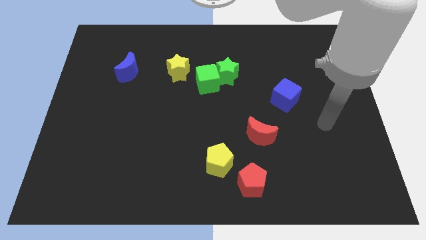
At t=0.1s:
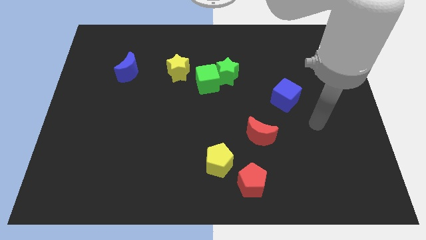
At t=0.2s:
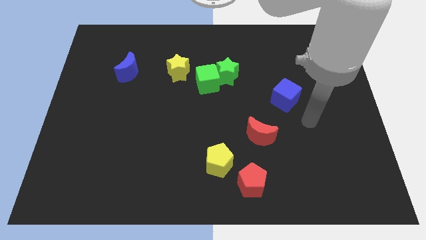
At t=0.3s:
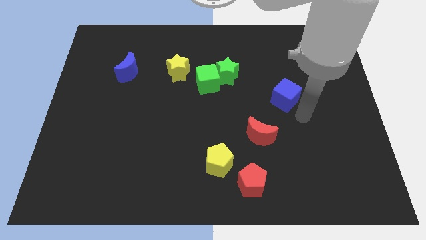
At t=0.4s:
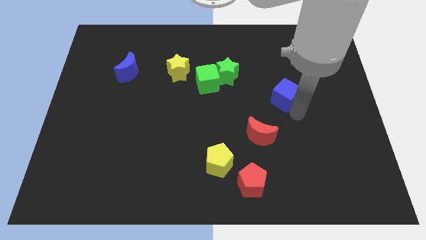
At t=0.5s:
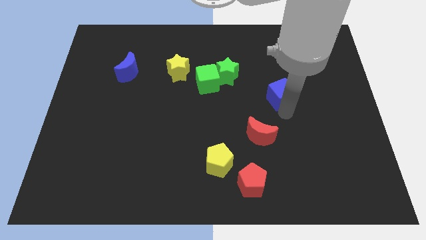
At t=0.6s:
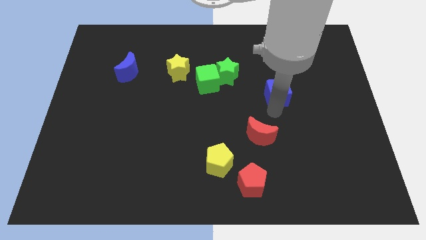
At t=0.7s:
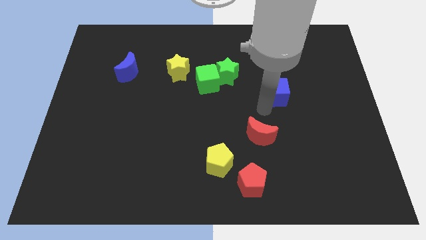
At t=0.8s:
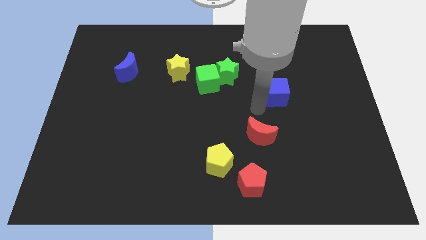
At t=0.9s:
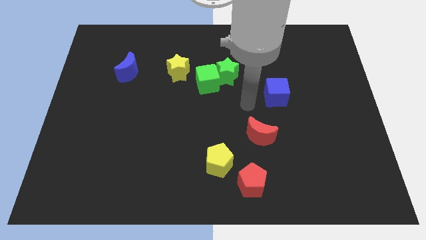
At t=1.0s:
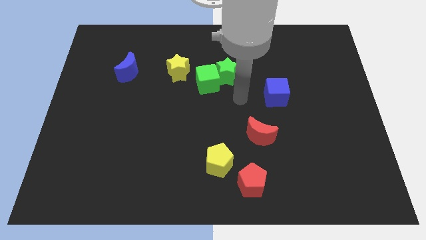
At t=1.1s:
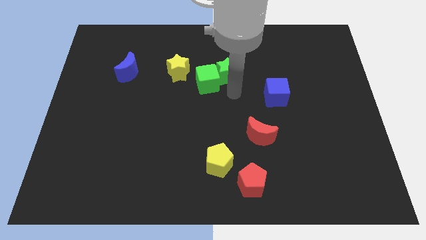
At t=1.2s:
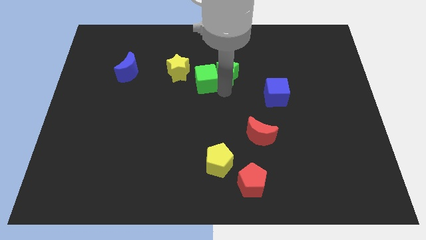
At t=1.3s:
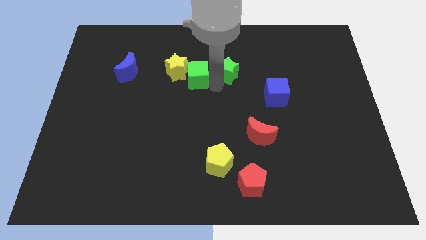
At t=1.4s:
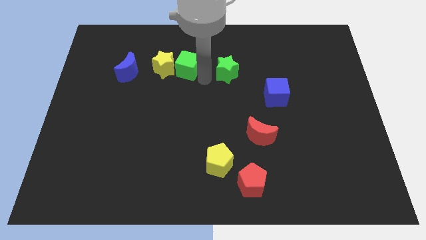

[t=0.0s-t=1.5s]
pull the green star apart from the green cube

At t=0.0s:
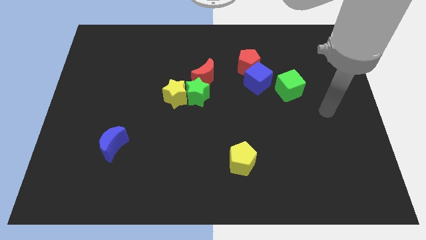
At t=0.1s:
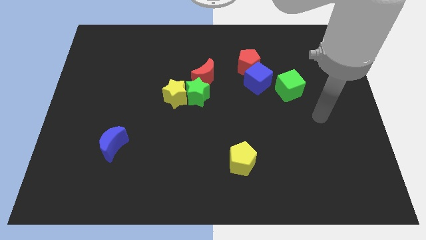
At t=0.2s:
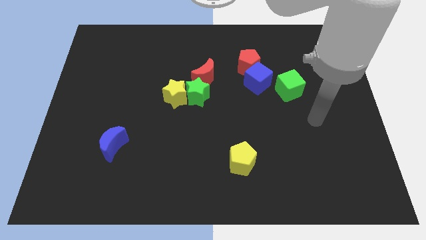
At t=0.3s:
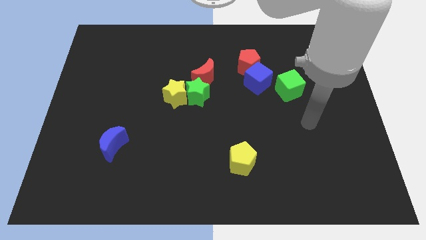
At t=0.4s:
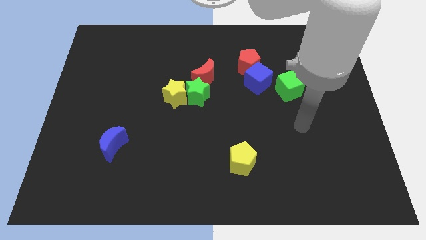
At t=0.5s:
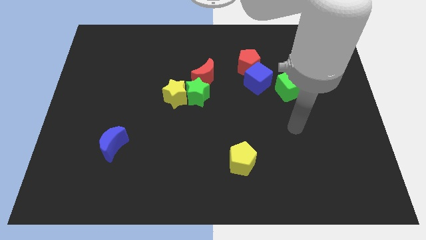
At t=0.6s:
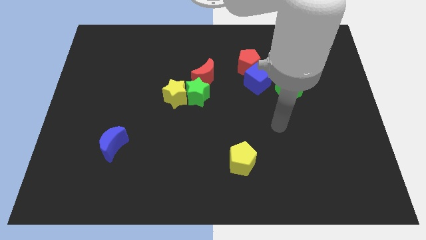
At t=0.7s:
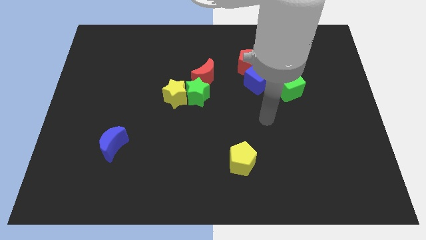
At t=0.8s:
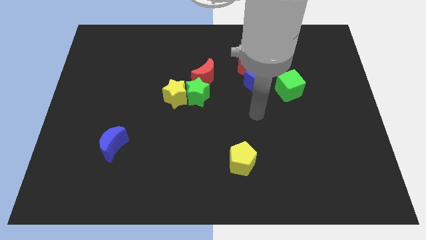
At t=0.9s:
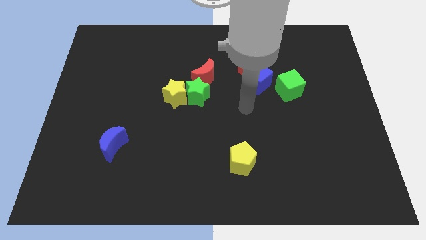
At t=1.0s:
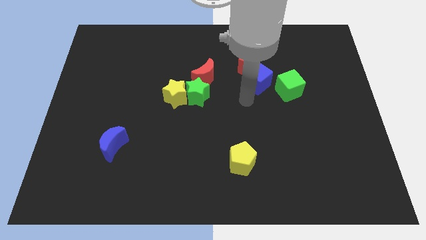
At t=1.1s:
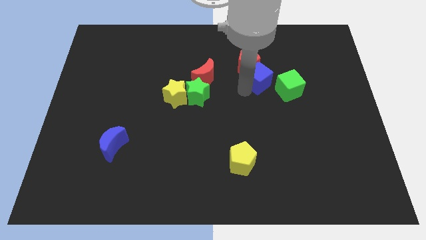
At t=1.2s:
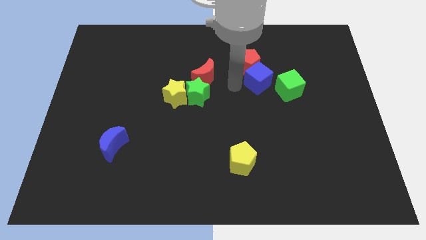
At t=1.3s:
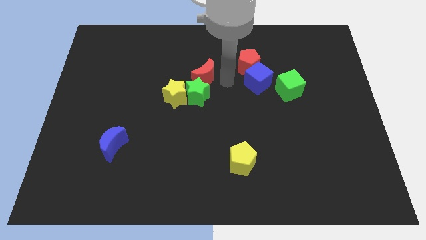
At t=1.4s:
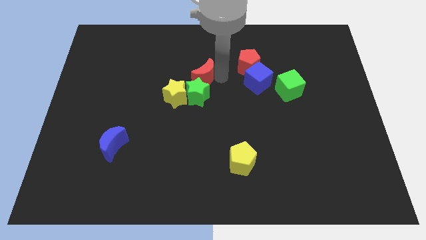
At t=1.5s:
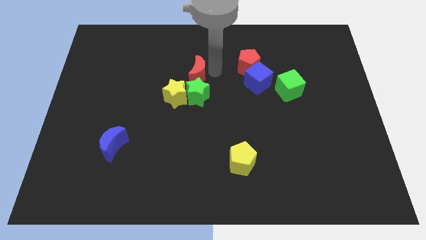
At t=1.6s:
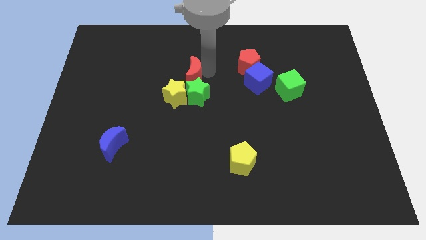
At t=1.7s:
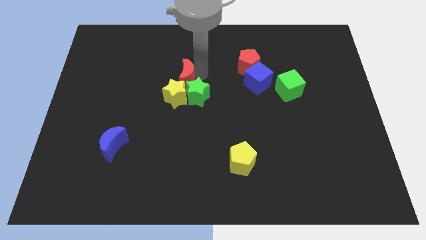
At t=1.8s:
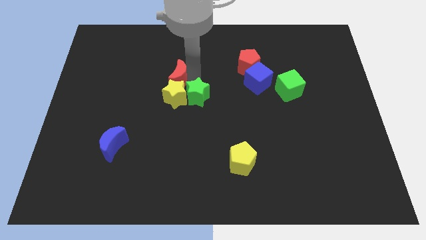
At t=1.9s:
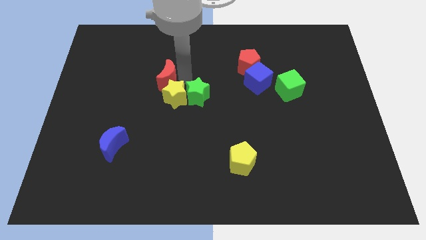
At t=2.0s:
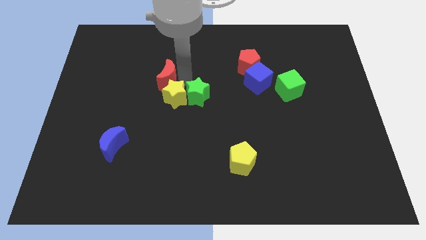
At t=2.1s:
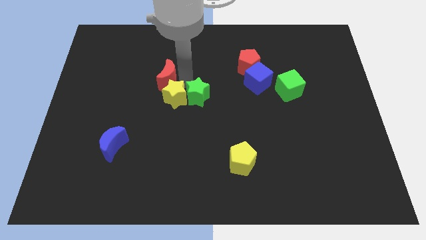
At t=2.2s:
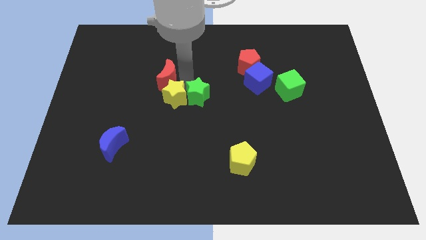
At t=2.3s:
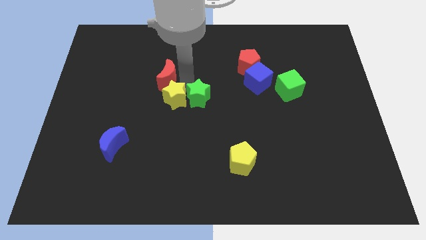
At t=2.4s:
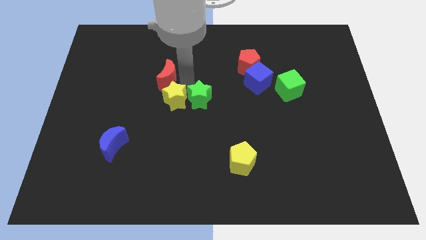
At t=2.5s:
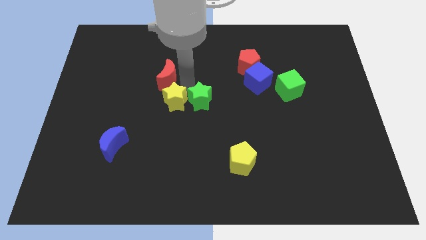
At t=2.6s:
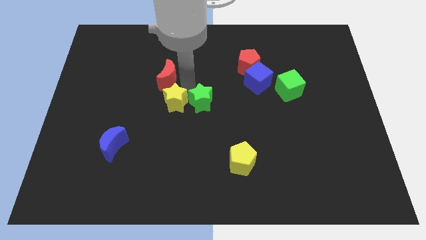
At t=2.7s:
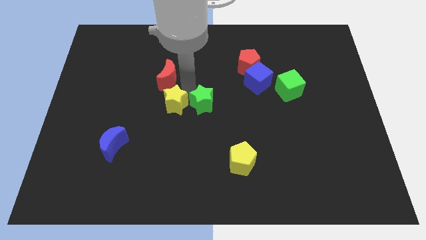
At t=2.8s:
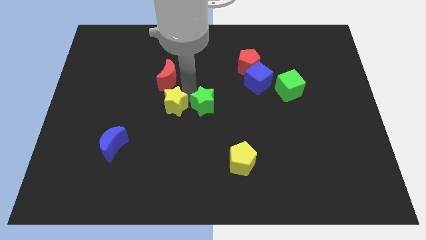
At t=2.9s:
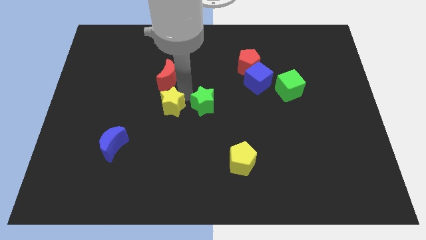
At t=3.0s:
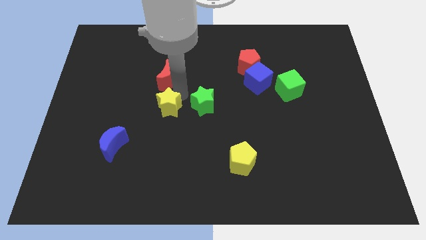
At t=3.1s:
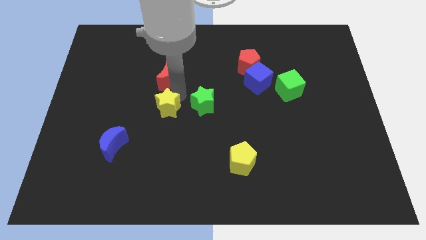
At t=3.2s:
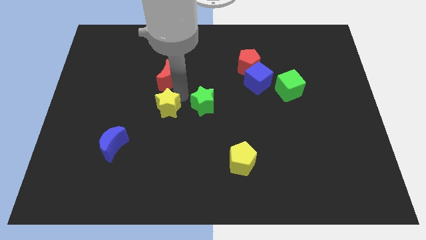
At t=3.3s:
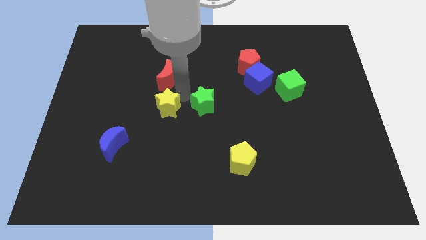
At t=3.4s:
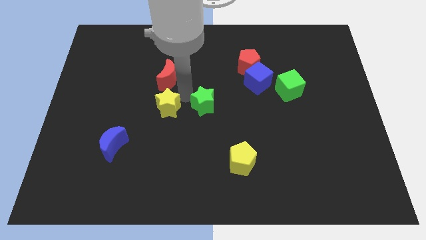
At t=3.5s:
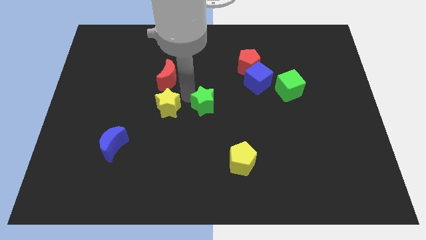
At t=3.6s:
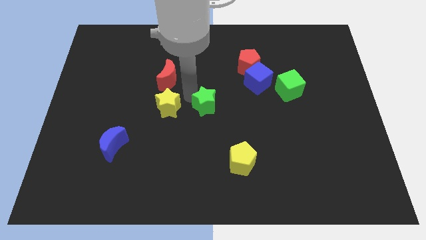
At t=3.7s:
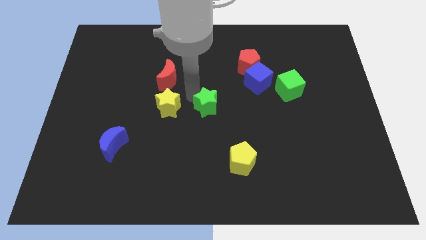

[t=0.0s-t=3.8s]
pull the green star apart from the yellow star and red moon

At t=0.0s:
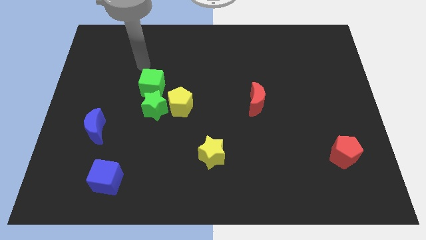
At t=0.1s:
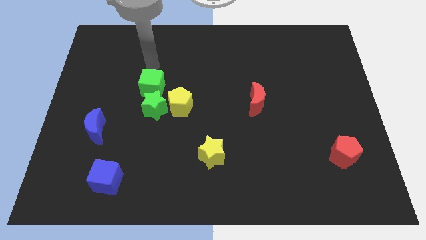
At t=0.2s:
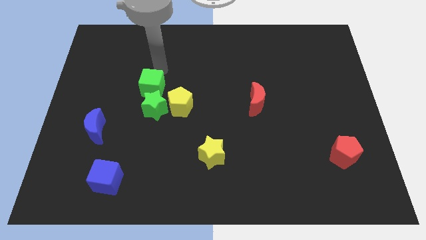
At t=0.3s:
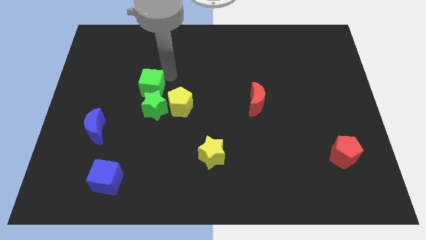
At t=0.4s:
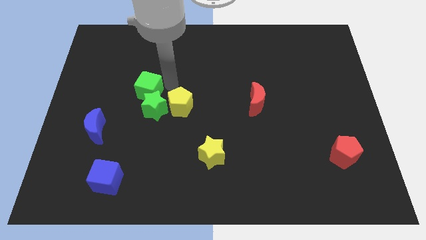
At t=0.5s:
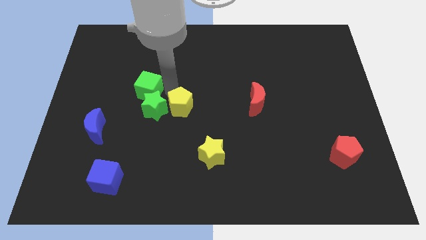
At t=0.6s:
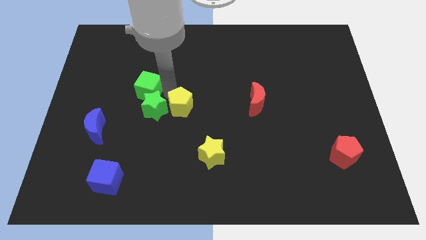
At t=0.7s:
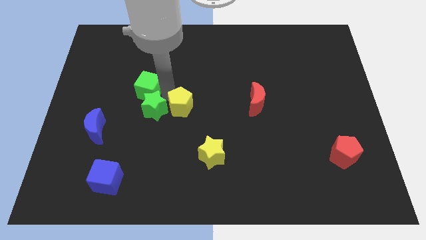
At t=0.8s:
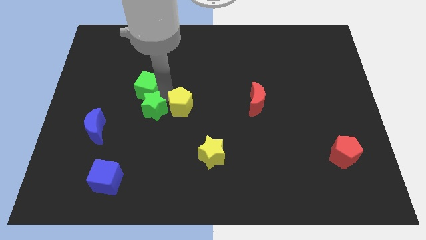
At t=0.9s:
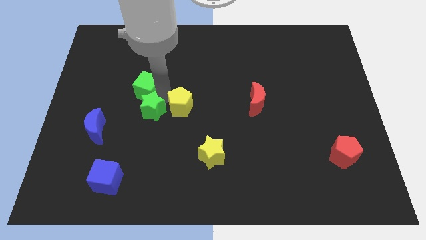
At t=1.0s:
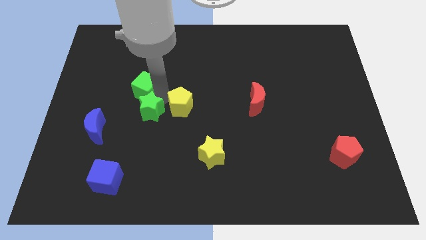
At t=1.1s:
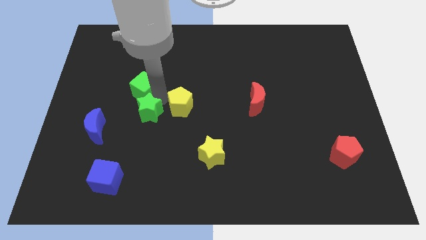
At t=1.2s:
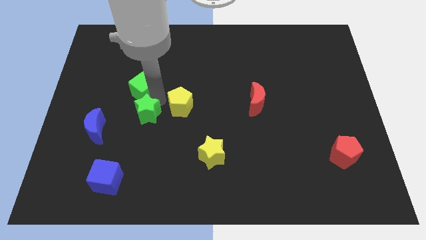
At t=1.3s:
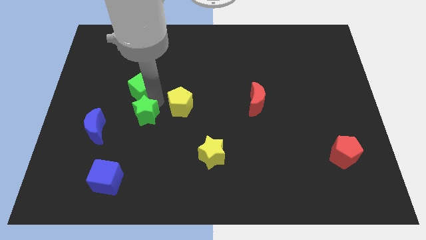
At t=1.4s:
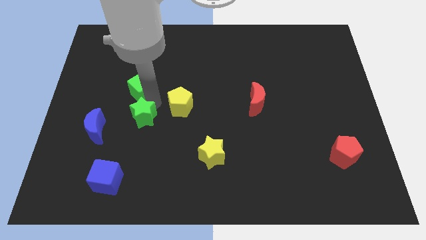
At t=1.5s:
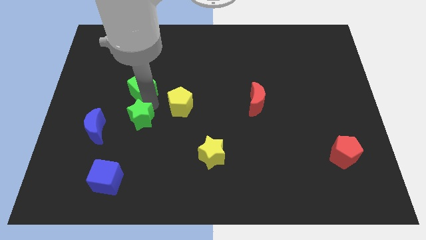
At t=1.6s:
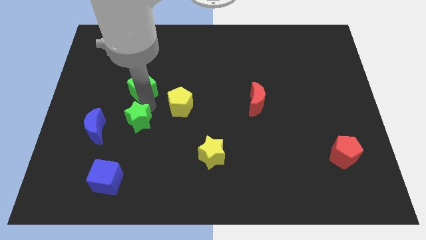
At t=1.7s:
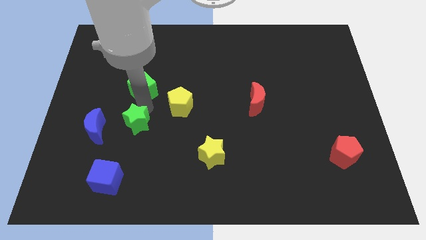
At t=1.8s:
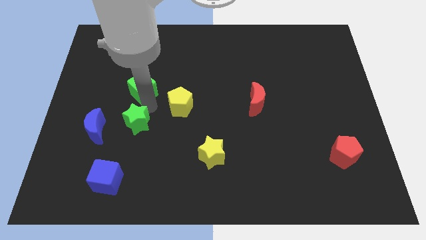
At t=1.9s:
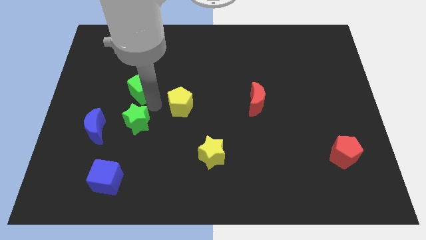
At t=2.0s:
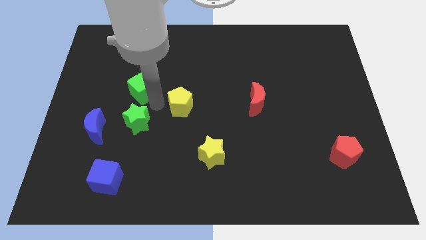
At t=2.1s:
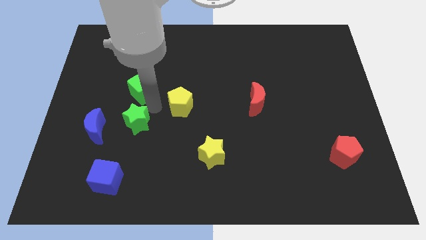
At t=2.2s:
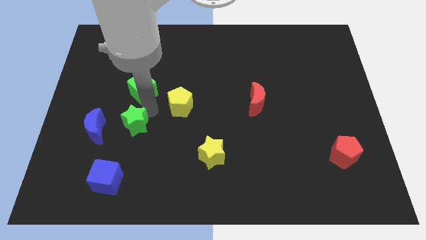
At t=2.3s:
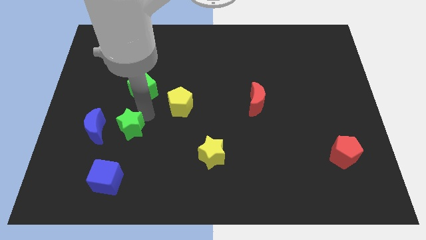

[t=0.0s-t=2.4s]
move the green star away from the yellow pentagon and green cube

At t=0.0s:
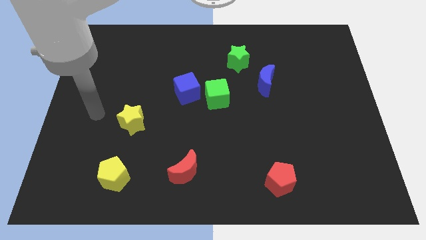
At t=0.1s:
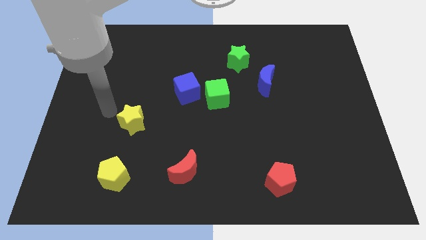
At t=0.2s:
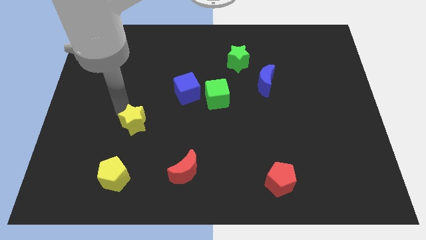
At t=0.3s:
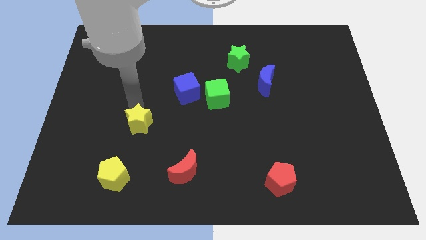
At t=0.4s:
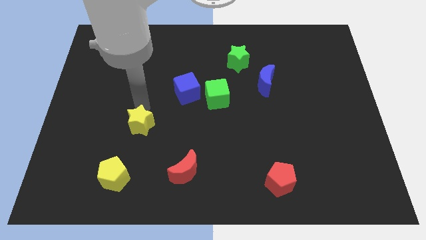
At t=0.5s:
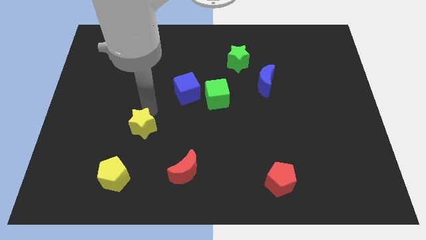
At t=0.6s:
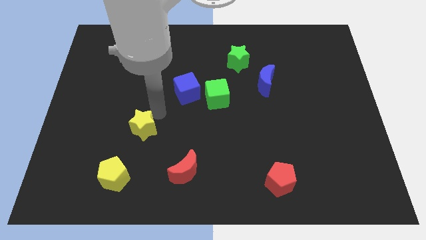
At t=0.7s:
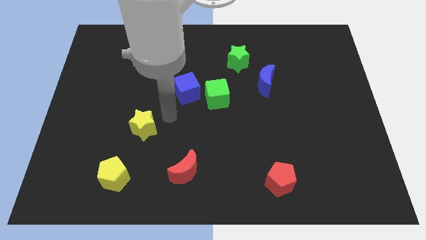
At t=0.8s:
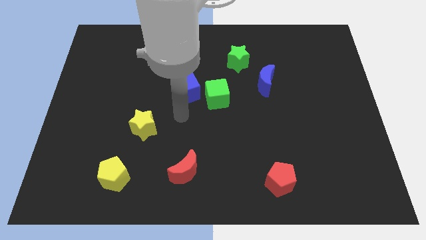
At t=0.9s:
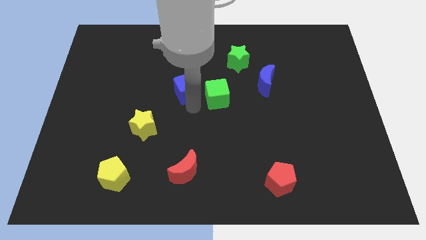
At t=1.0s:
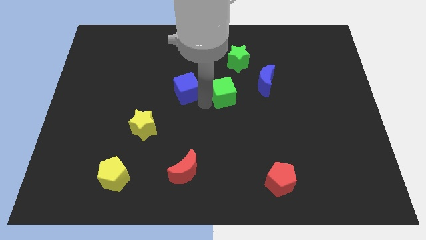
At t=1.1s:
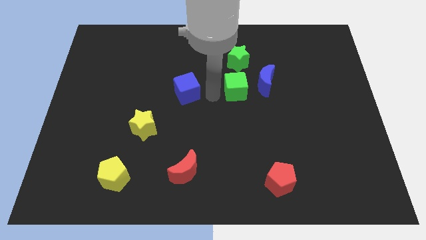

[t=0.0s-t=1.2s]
separate the blue cube from the green cube

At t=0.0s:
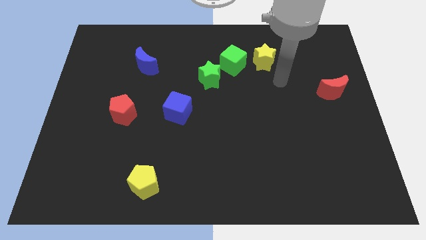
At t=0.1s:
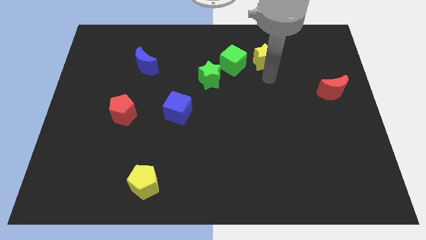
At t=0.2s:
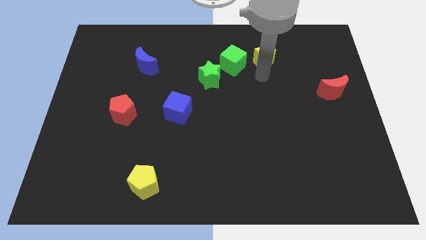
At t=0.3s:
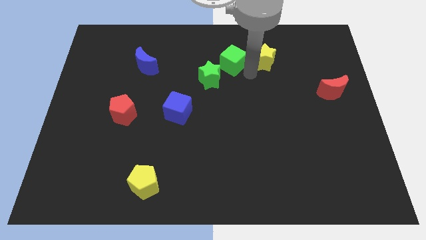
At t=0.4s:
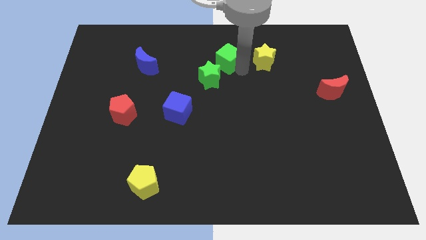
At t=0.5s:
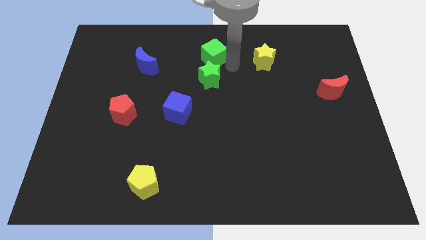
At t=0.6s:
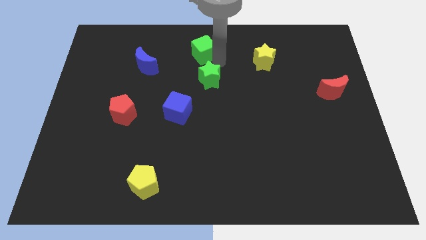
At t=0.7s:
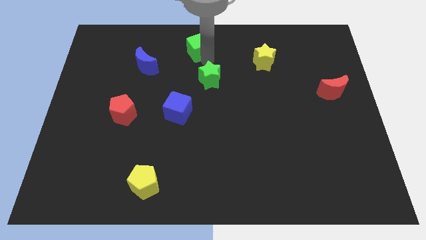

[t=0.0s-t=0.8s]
separate the green star from the green cube
